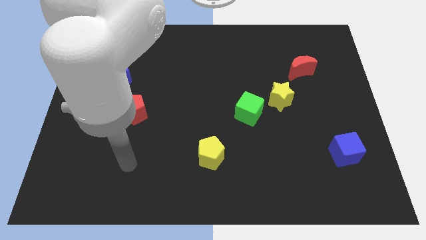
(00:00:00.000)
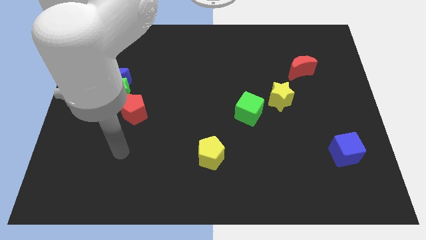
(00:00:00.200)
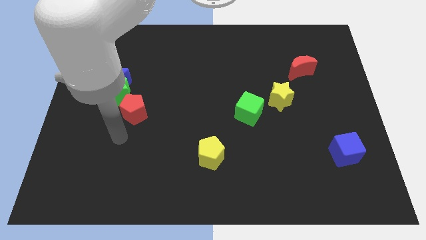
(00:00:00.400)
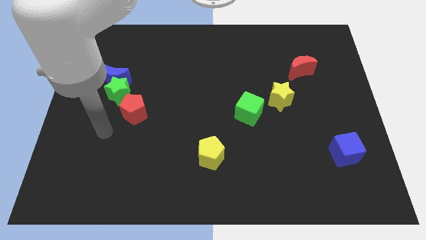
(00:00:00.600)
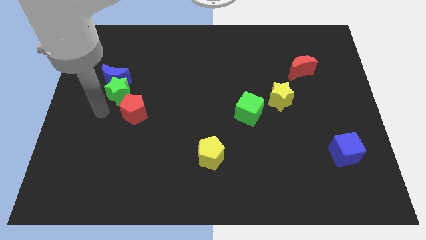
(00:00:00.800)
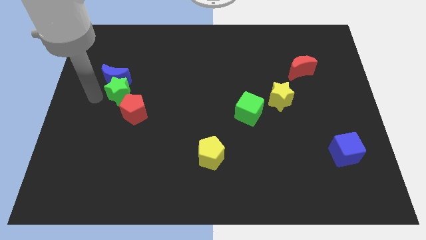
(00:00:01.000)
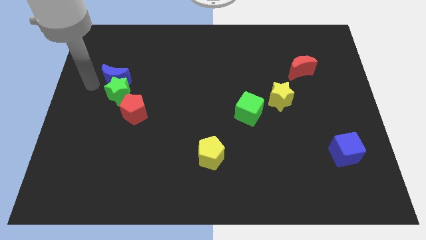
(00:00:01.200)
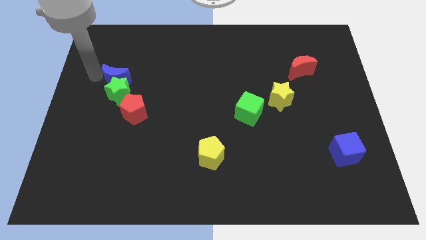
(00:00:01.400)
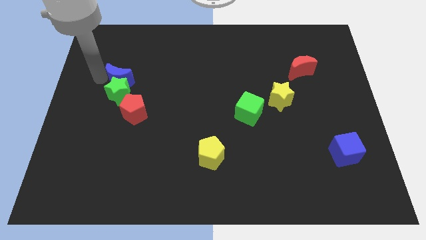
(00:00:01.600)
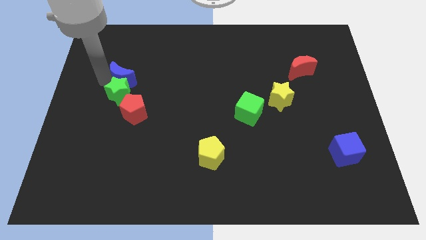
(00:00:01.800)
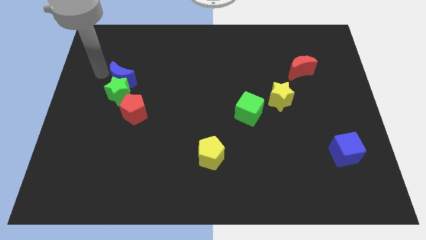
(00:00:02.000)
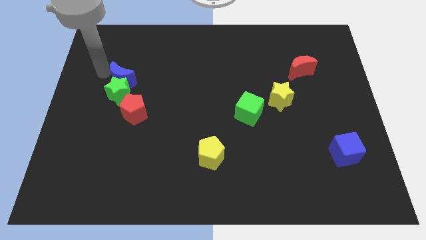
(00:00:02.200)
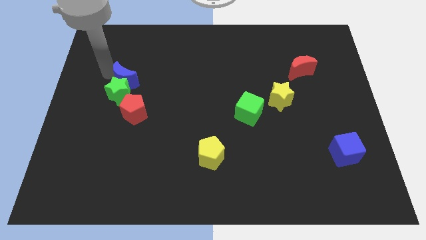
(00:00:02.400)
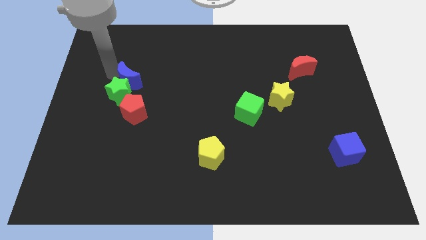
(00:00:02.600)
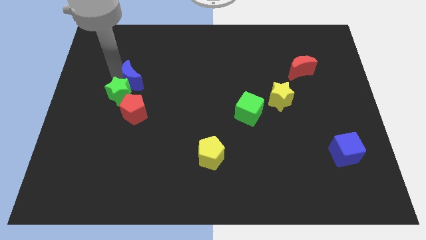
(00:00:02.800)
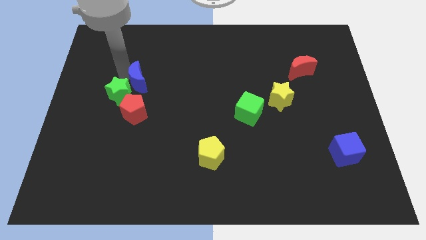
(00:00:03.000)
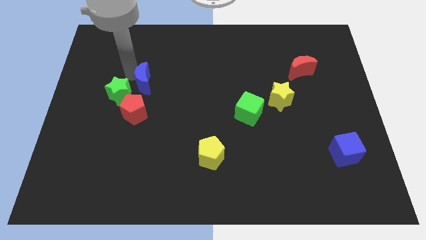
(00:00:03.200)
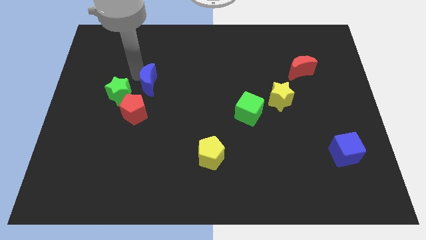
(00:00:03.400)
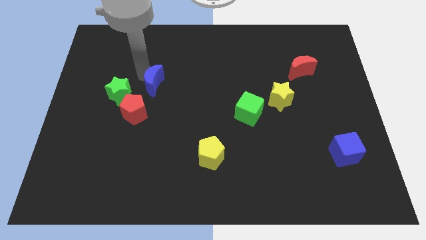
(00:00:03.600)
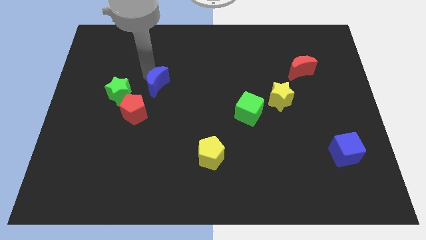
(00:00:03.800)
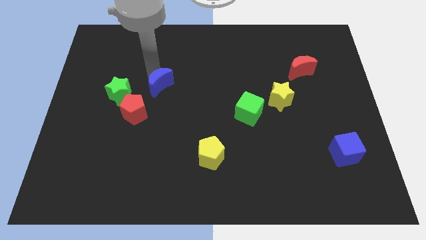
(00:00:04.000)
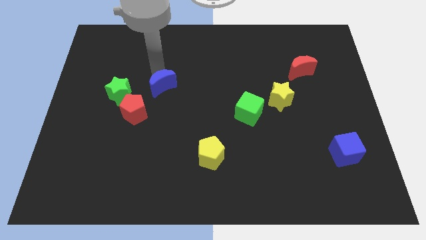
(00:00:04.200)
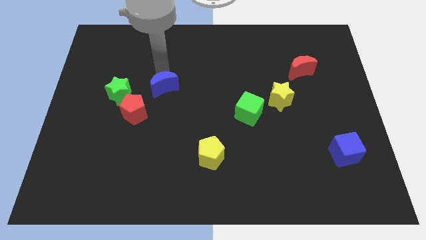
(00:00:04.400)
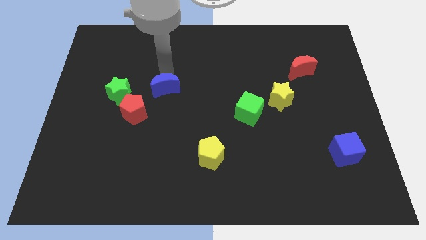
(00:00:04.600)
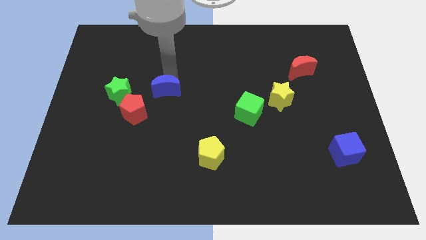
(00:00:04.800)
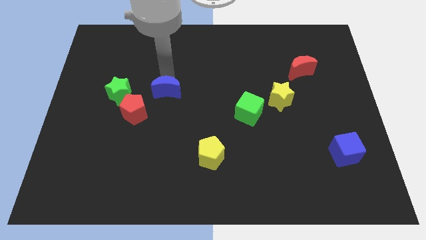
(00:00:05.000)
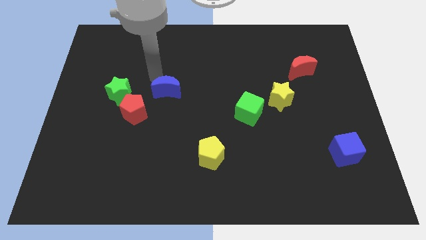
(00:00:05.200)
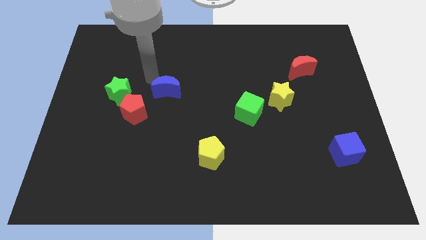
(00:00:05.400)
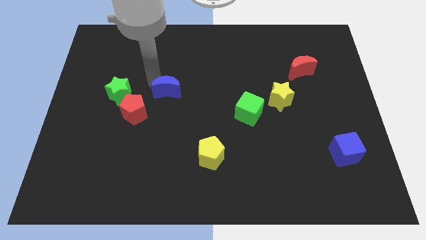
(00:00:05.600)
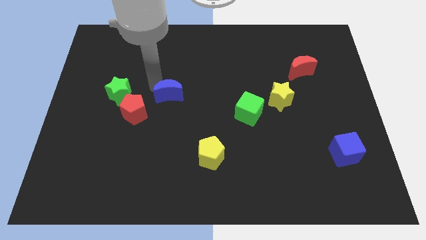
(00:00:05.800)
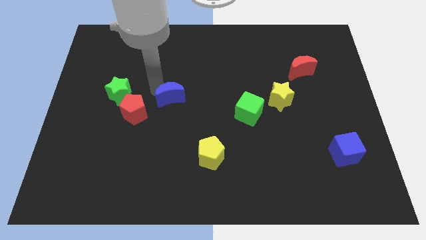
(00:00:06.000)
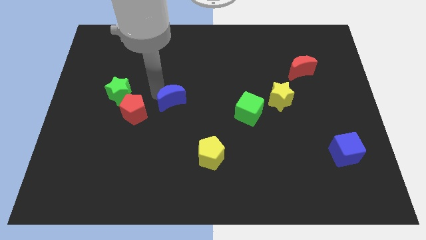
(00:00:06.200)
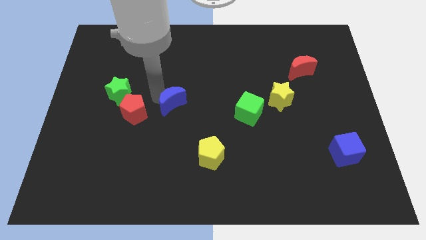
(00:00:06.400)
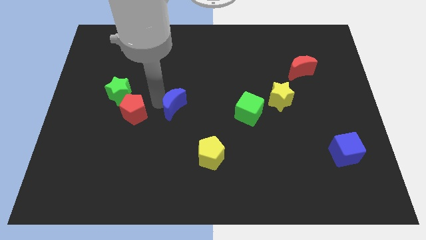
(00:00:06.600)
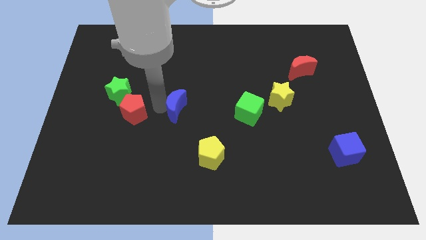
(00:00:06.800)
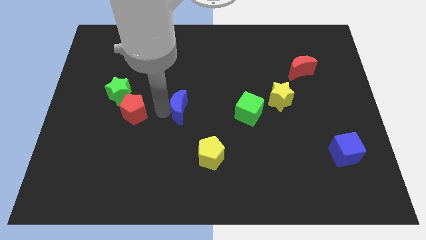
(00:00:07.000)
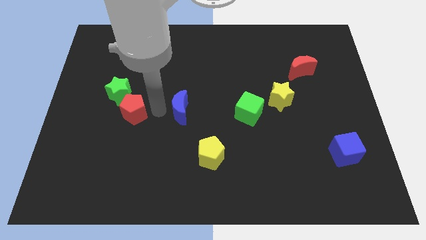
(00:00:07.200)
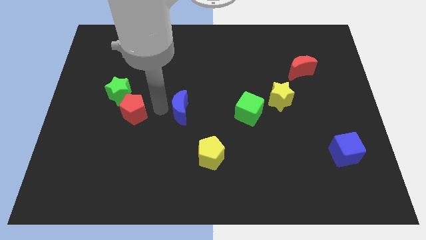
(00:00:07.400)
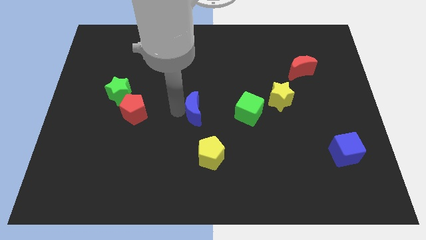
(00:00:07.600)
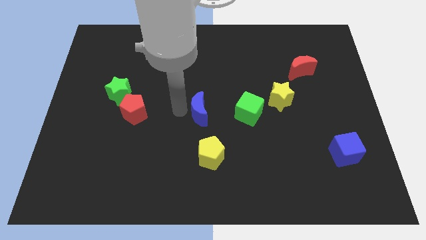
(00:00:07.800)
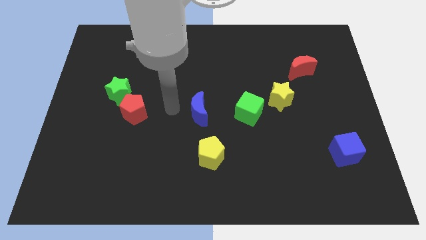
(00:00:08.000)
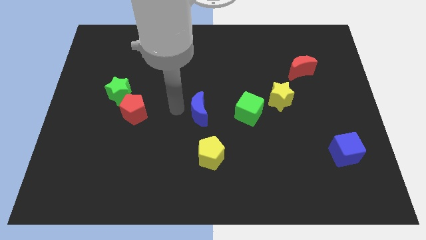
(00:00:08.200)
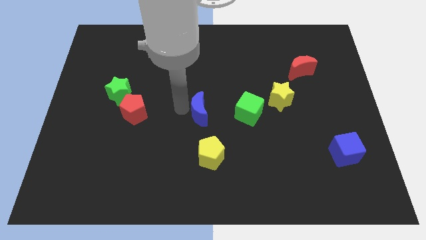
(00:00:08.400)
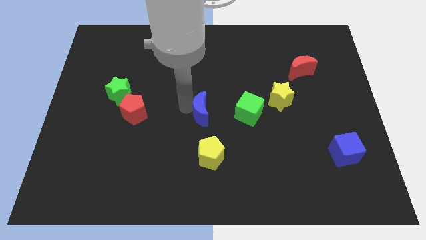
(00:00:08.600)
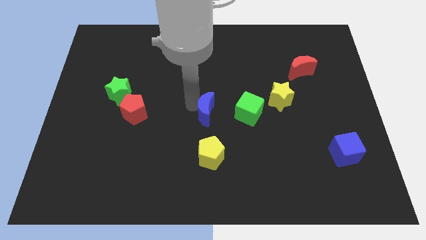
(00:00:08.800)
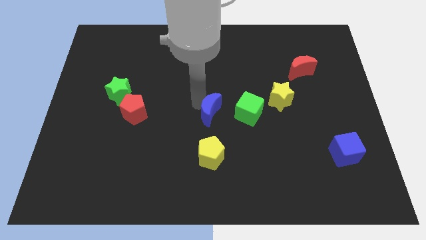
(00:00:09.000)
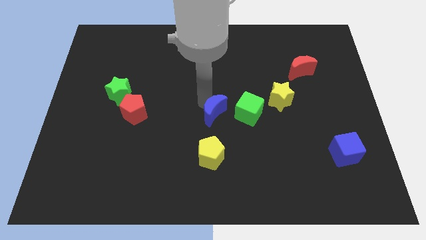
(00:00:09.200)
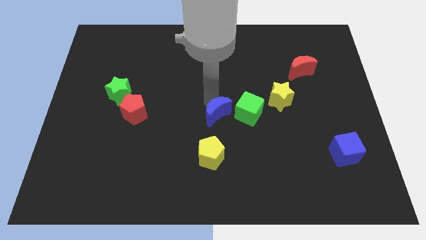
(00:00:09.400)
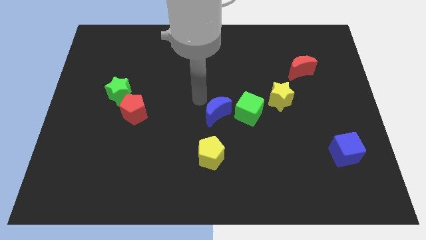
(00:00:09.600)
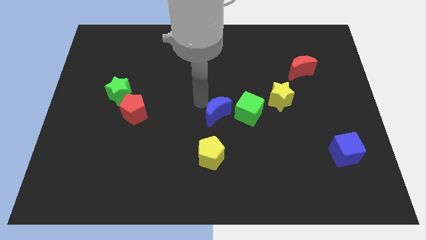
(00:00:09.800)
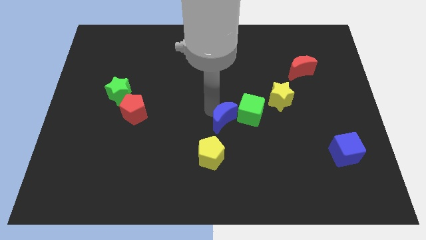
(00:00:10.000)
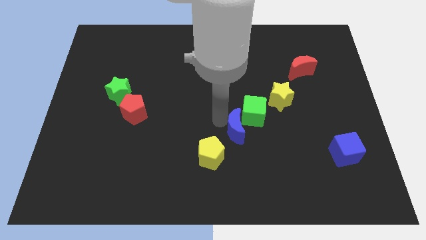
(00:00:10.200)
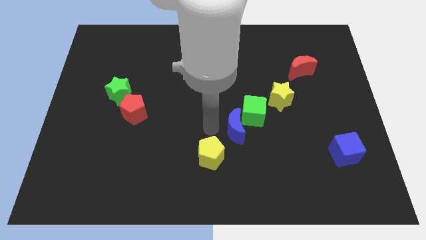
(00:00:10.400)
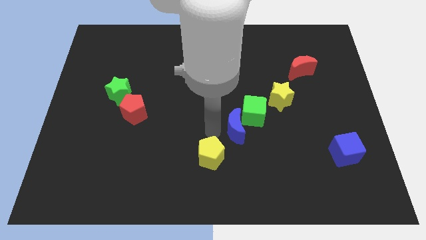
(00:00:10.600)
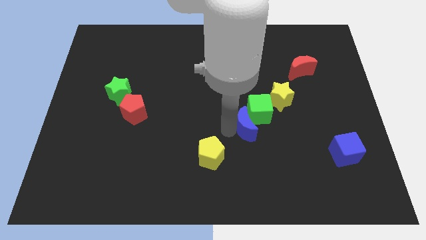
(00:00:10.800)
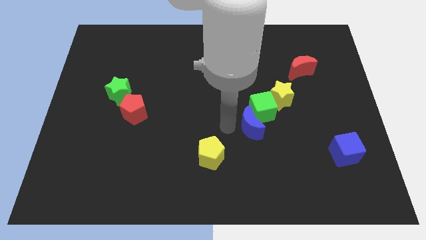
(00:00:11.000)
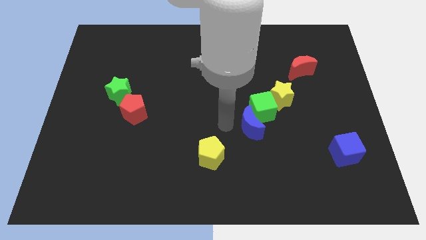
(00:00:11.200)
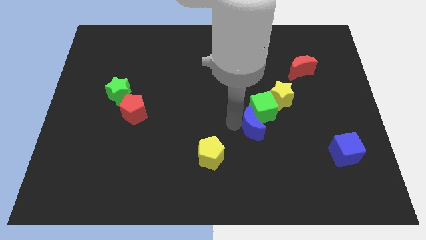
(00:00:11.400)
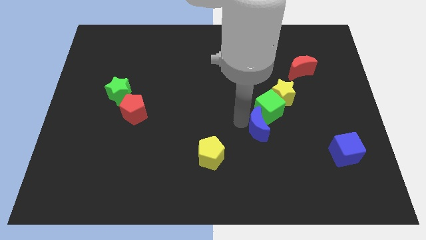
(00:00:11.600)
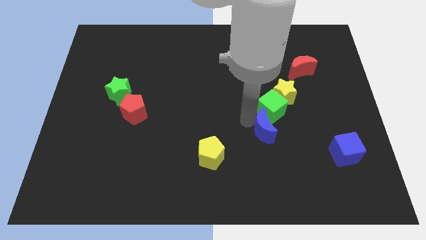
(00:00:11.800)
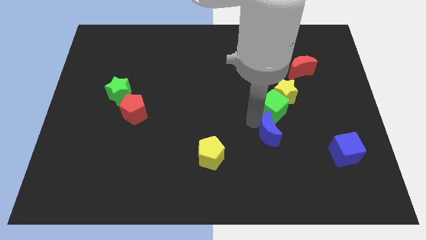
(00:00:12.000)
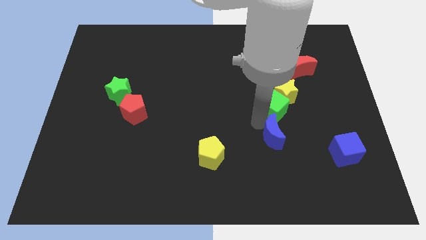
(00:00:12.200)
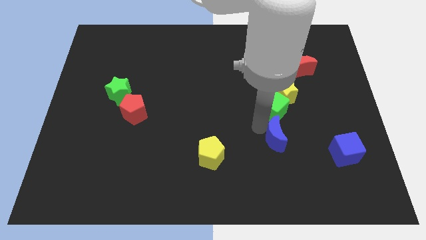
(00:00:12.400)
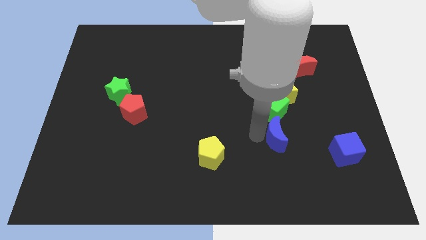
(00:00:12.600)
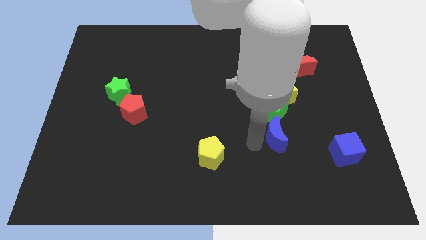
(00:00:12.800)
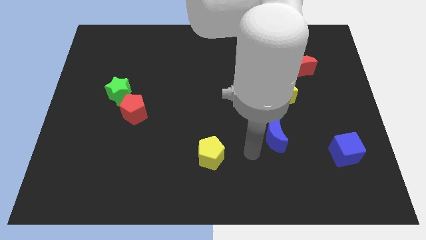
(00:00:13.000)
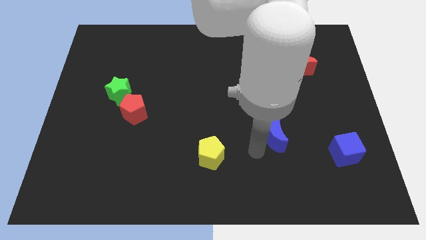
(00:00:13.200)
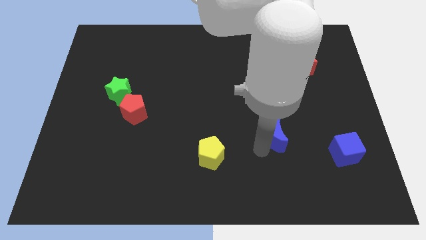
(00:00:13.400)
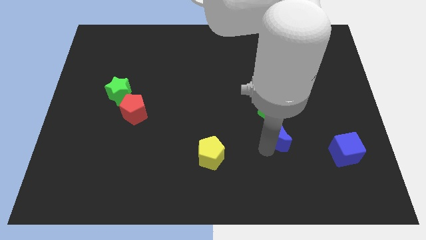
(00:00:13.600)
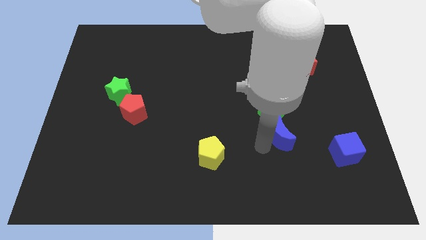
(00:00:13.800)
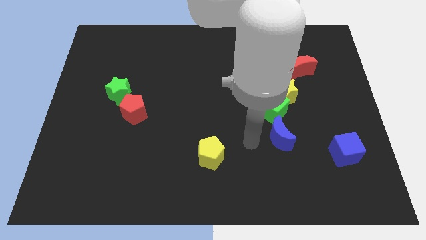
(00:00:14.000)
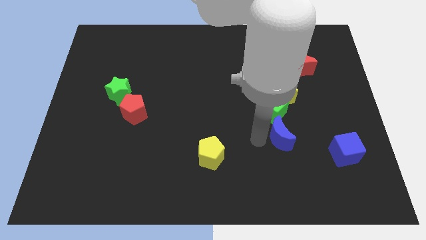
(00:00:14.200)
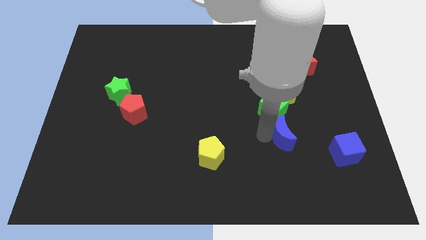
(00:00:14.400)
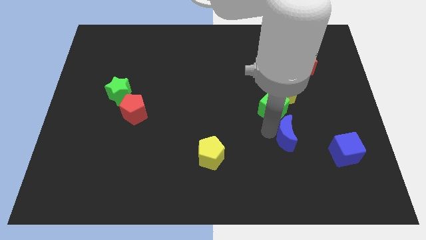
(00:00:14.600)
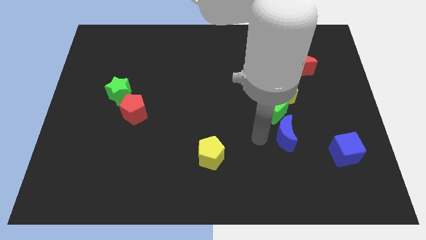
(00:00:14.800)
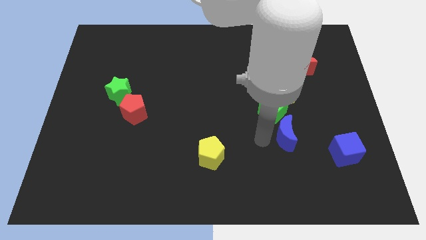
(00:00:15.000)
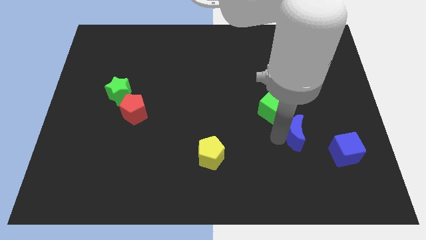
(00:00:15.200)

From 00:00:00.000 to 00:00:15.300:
put the blue moon to the top left of the blue cube
